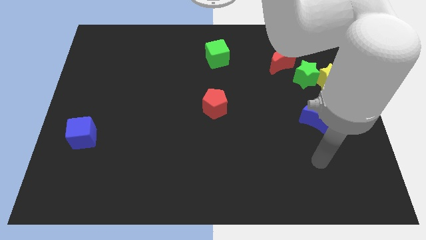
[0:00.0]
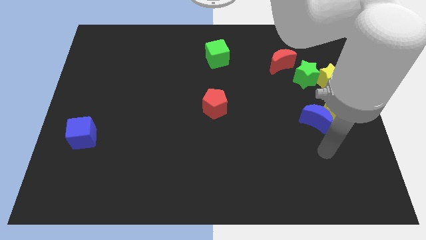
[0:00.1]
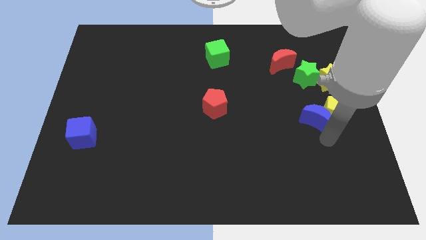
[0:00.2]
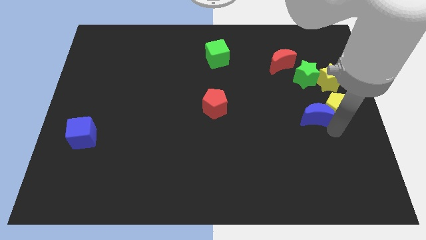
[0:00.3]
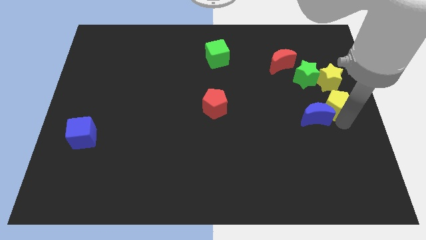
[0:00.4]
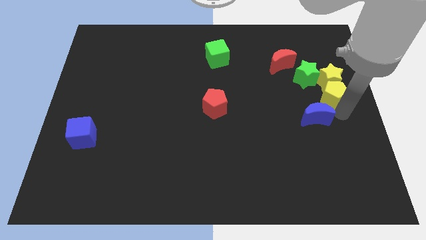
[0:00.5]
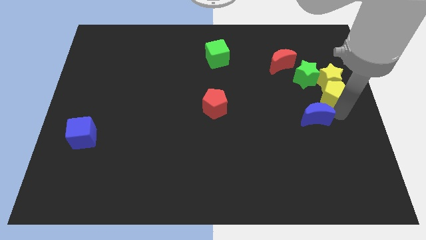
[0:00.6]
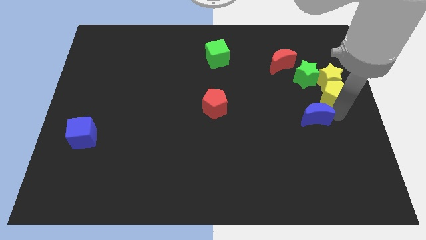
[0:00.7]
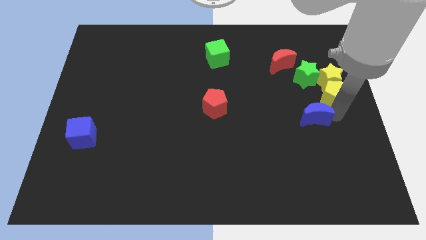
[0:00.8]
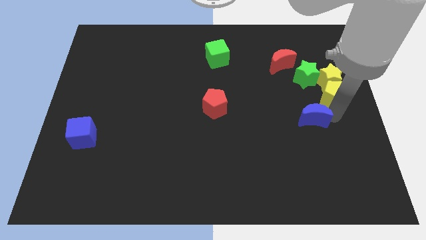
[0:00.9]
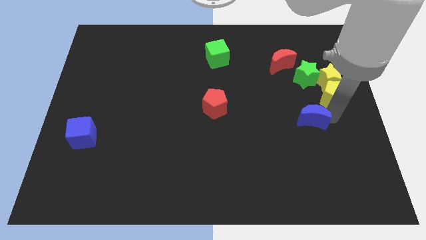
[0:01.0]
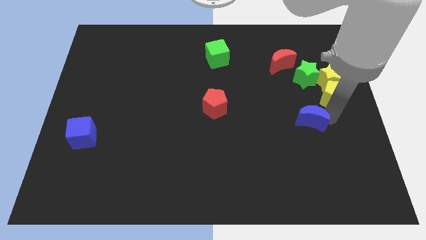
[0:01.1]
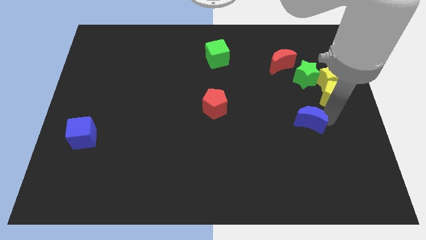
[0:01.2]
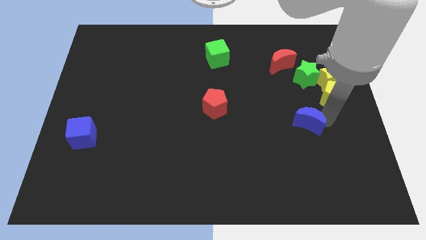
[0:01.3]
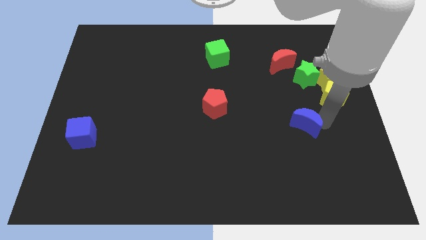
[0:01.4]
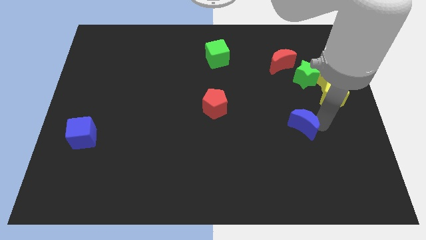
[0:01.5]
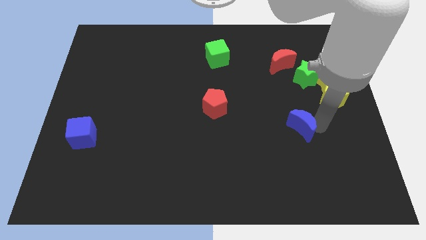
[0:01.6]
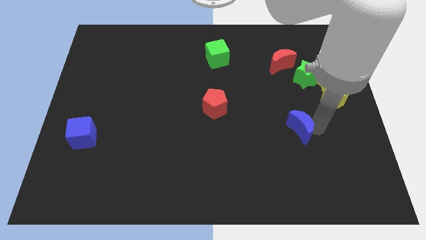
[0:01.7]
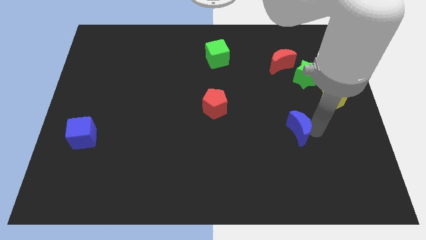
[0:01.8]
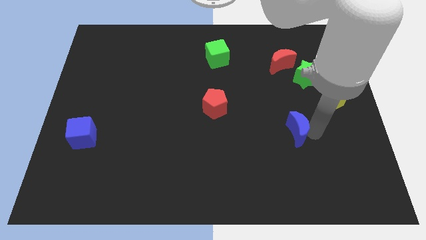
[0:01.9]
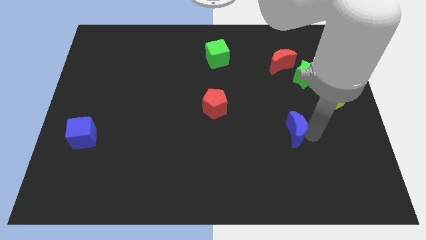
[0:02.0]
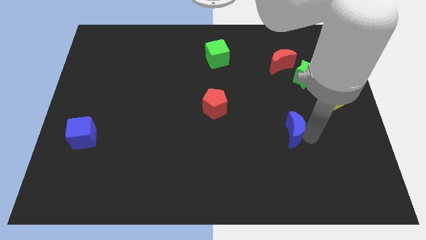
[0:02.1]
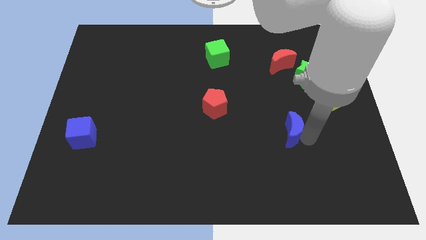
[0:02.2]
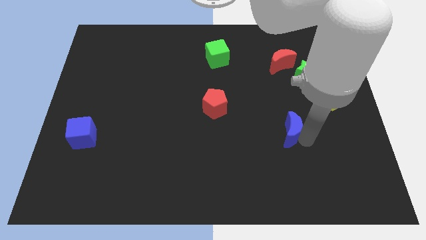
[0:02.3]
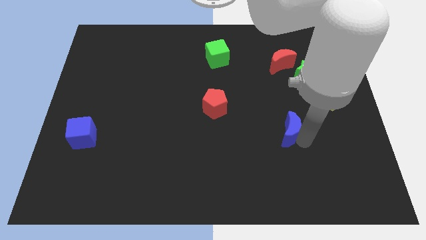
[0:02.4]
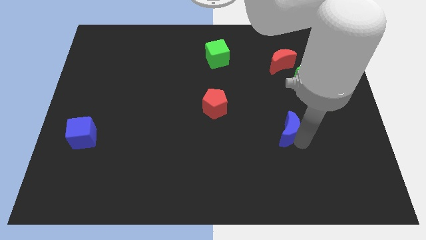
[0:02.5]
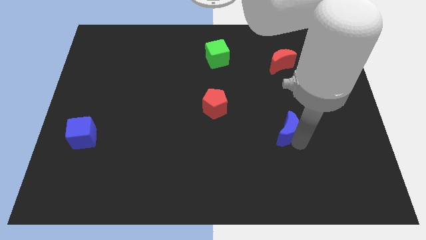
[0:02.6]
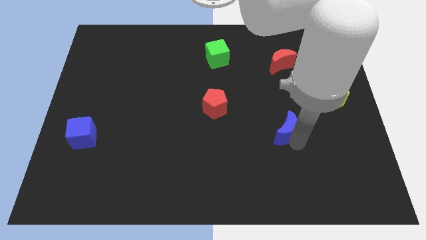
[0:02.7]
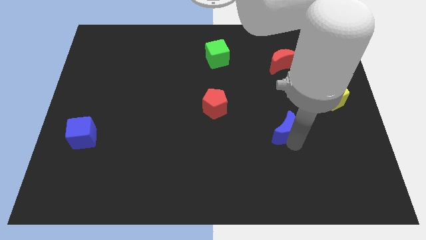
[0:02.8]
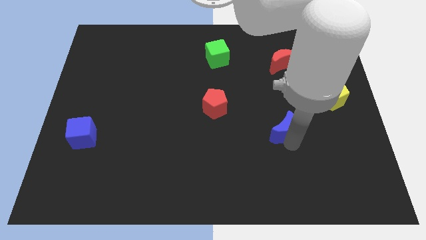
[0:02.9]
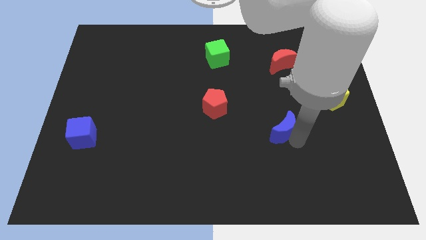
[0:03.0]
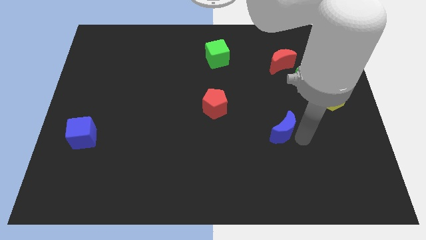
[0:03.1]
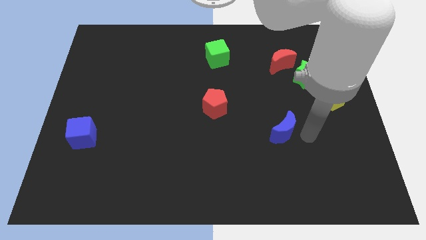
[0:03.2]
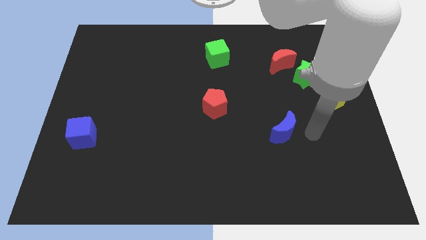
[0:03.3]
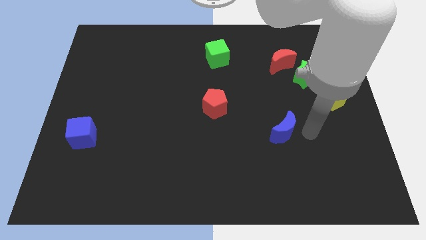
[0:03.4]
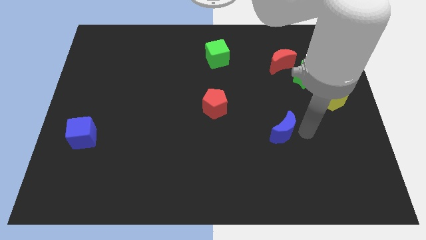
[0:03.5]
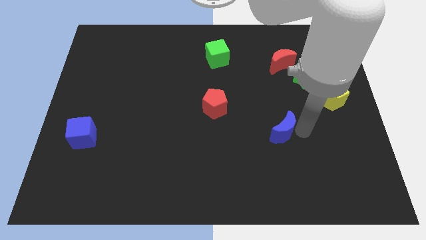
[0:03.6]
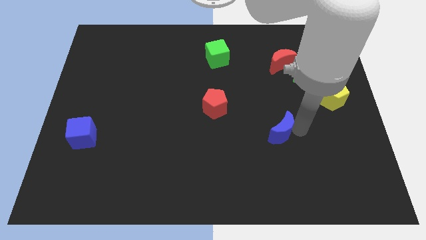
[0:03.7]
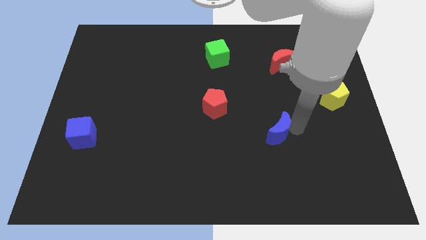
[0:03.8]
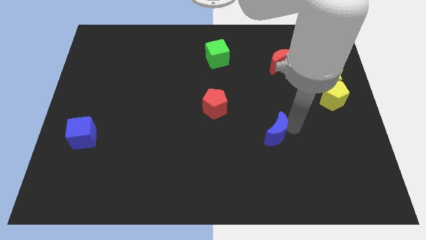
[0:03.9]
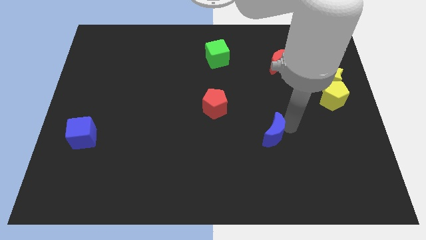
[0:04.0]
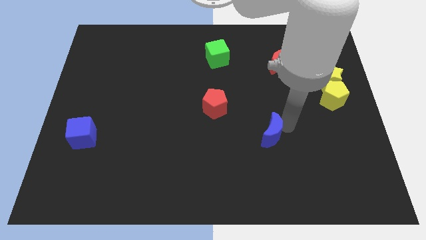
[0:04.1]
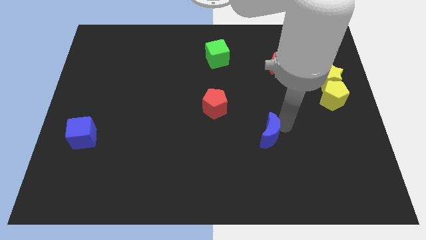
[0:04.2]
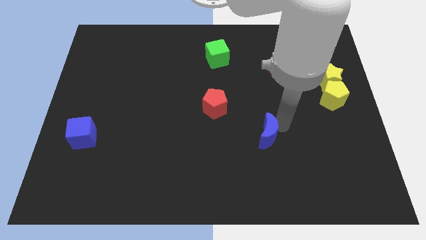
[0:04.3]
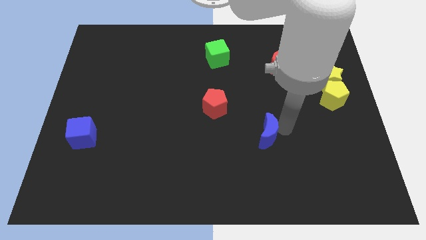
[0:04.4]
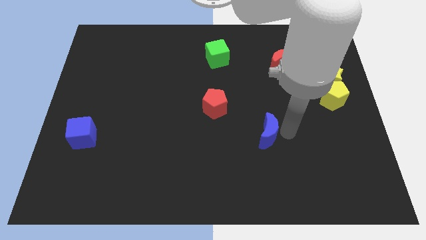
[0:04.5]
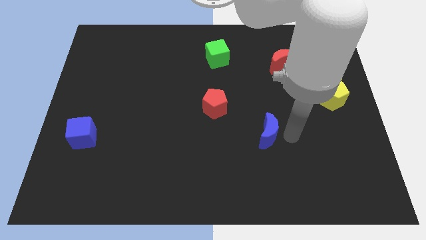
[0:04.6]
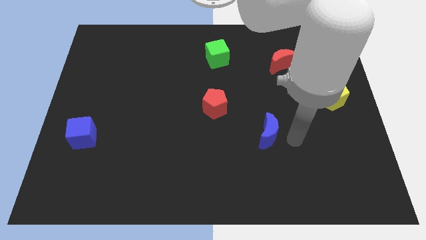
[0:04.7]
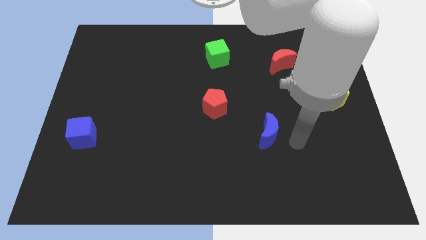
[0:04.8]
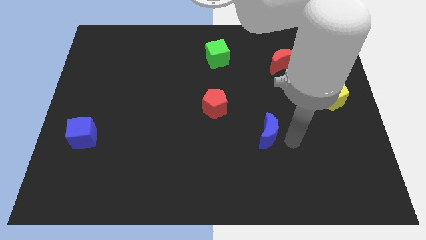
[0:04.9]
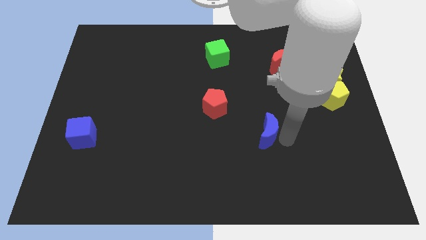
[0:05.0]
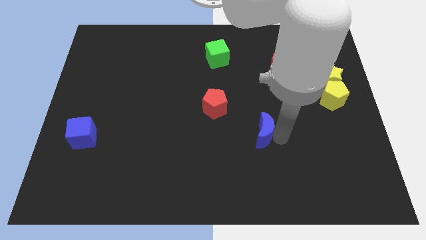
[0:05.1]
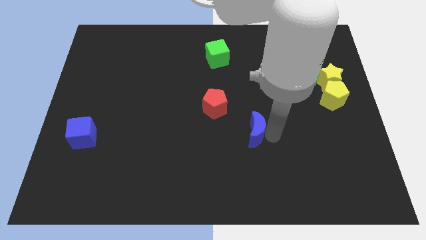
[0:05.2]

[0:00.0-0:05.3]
push the blue moon to the bottom right side of the red pentagon

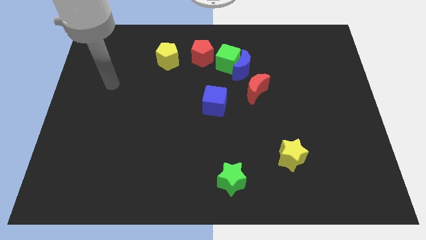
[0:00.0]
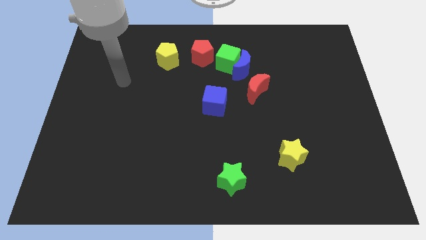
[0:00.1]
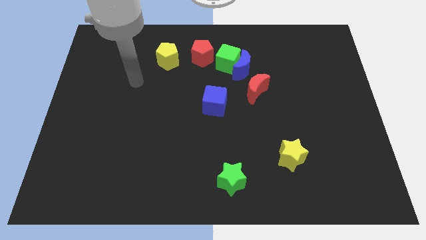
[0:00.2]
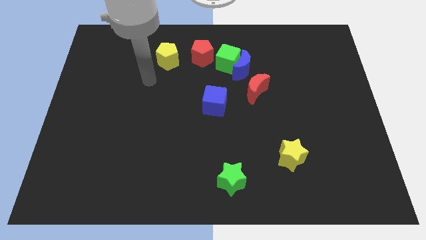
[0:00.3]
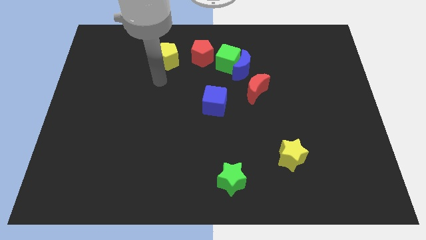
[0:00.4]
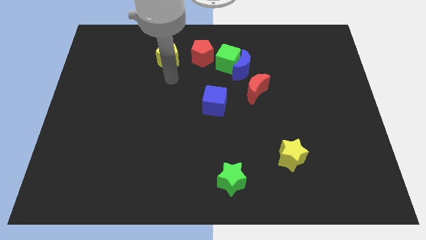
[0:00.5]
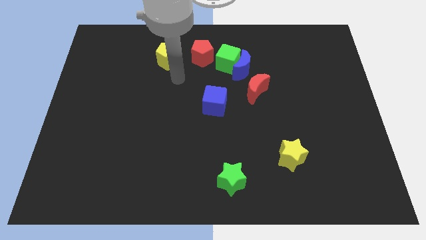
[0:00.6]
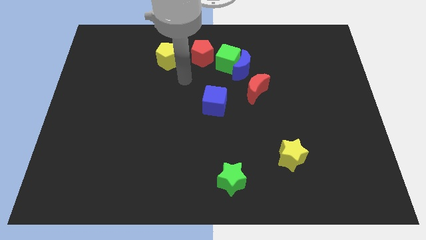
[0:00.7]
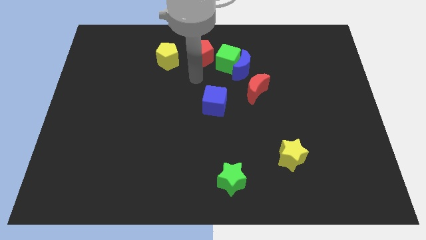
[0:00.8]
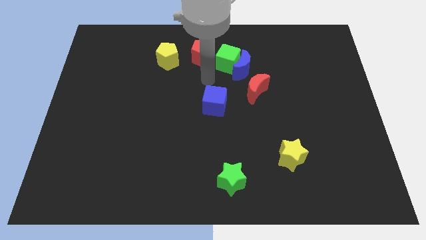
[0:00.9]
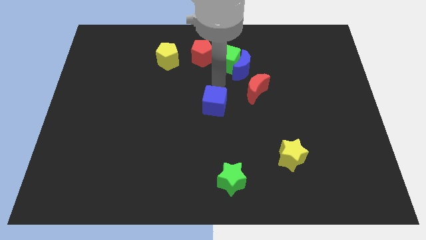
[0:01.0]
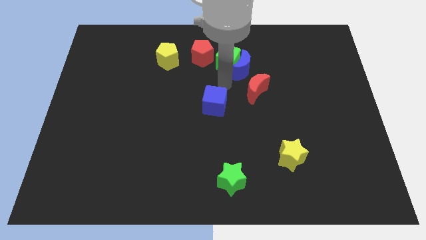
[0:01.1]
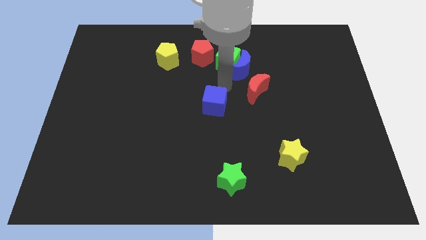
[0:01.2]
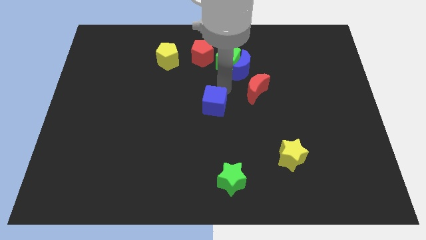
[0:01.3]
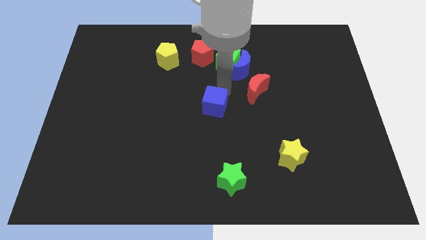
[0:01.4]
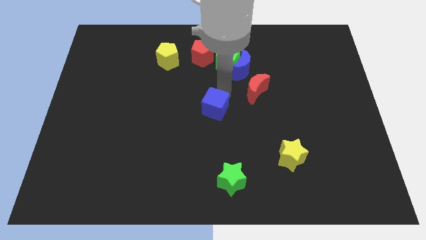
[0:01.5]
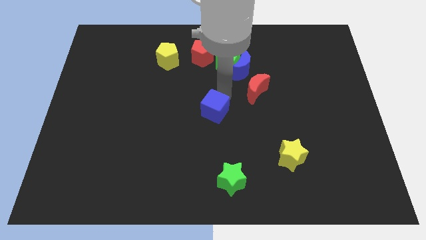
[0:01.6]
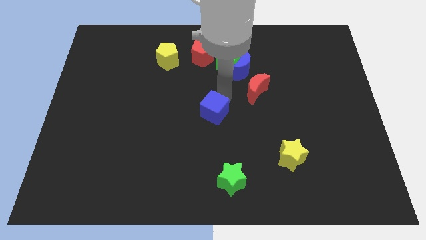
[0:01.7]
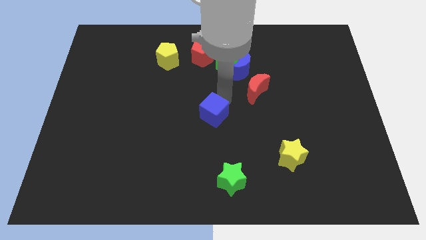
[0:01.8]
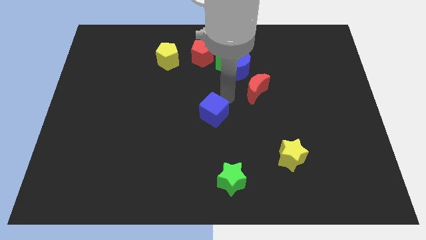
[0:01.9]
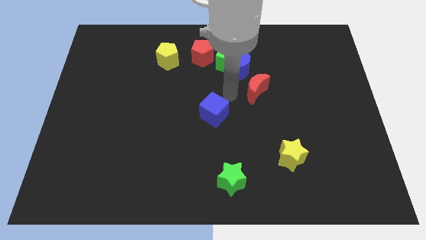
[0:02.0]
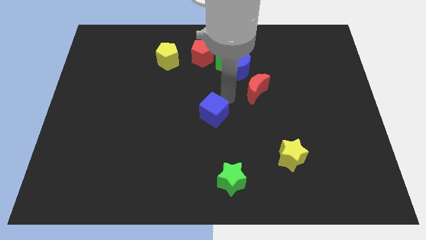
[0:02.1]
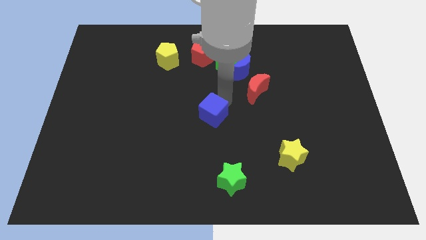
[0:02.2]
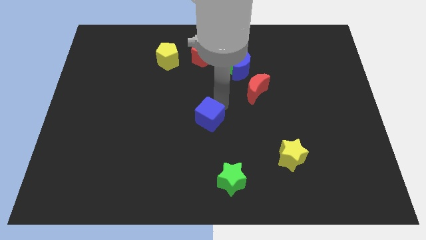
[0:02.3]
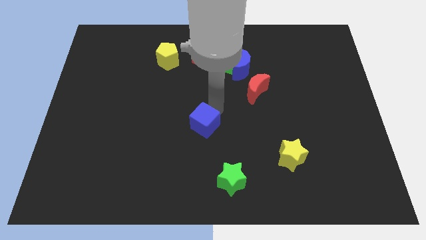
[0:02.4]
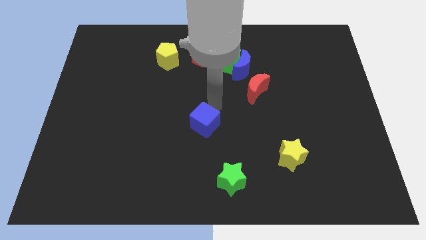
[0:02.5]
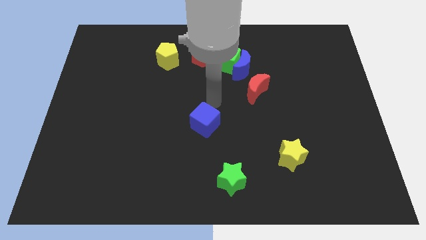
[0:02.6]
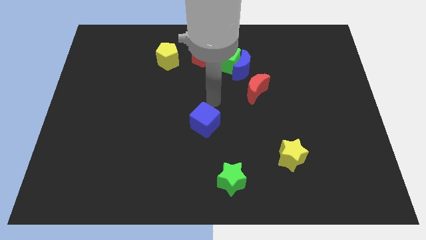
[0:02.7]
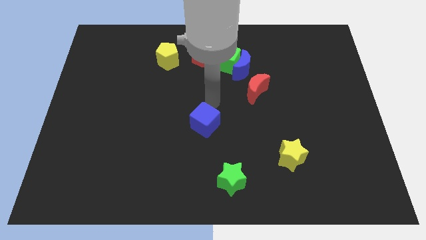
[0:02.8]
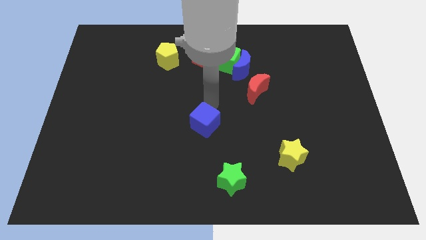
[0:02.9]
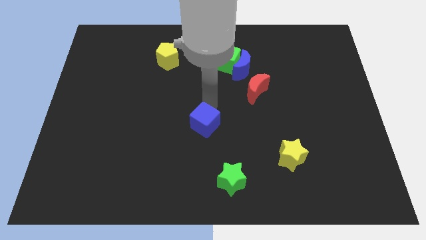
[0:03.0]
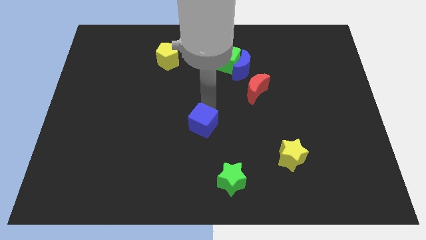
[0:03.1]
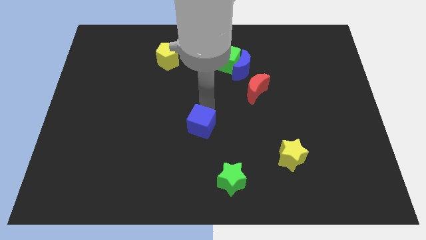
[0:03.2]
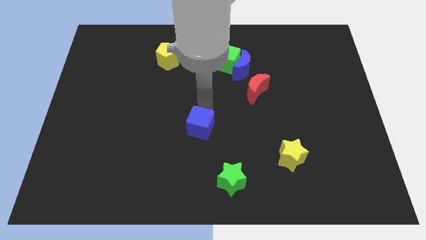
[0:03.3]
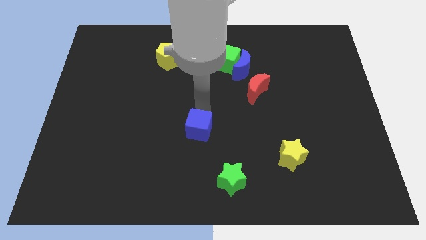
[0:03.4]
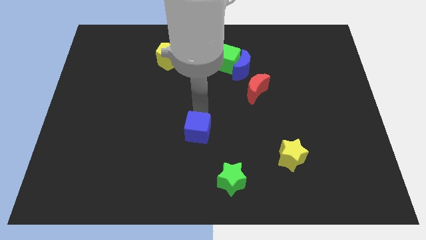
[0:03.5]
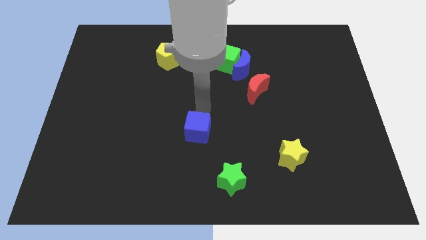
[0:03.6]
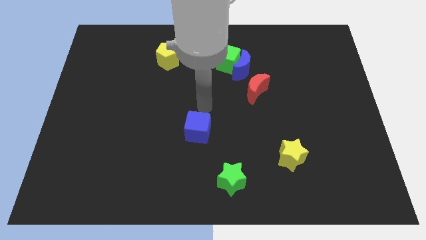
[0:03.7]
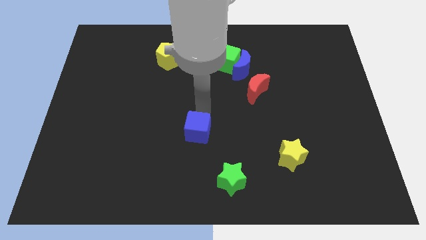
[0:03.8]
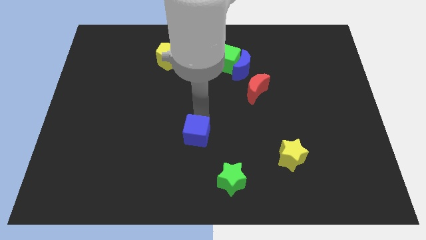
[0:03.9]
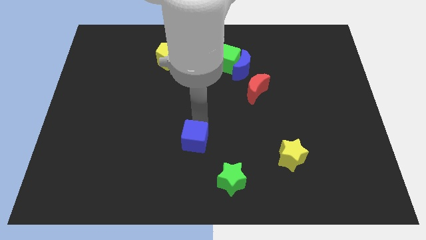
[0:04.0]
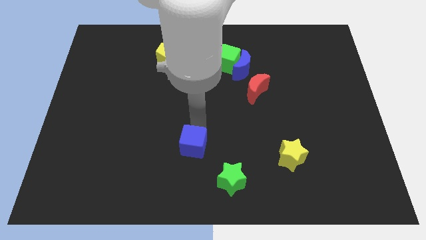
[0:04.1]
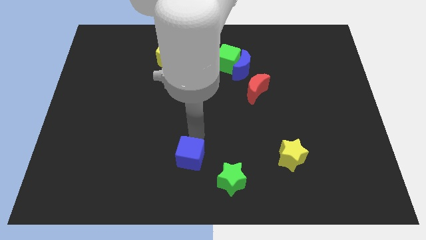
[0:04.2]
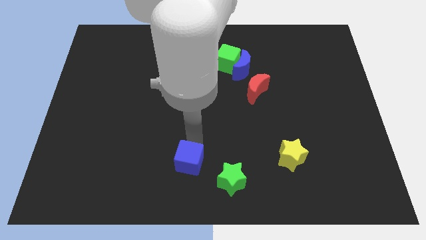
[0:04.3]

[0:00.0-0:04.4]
move the blue cube to the left of the green star
